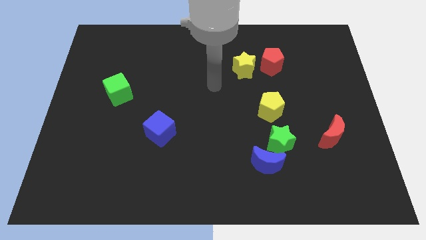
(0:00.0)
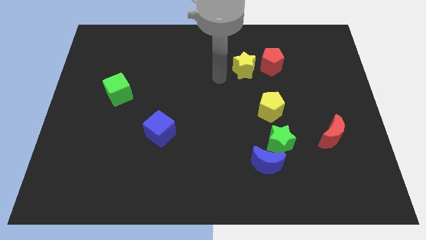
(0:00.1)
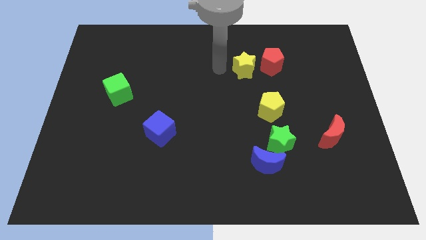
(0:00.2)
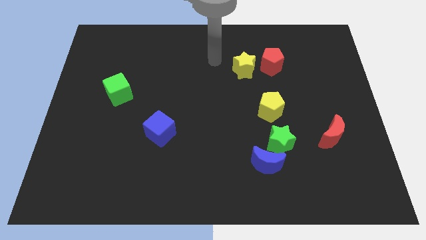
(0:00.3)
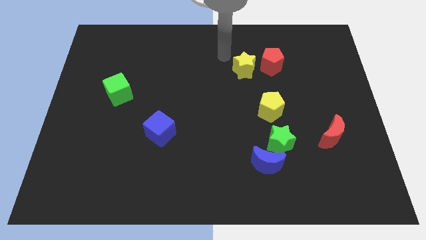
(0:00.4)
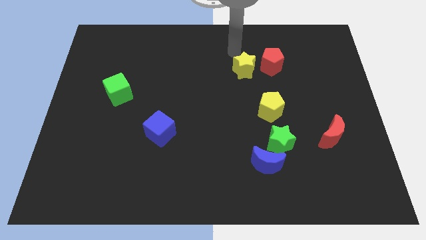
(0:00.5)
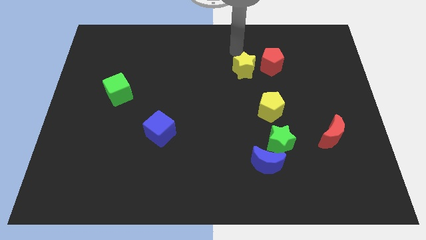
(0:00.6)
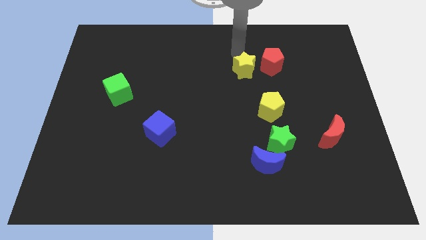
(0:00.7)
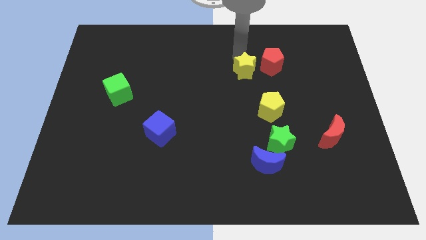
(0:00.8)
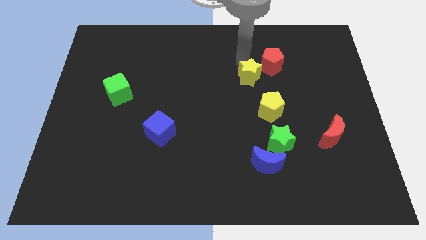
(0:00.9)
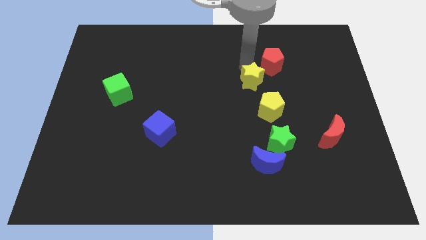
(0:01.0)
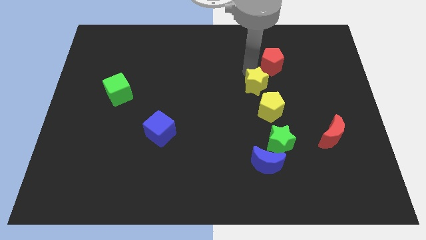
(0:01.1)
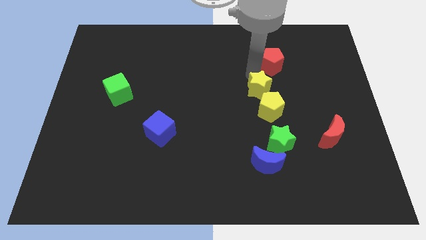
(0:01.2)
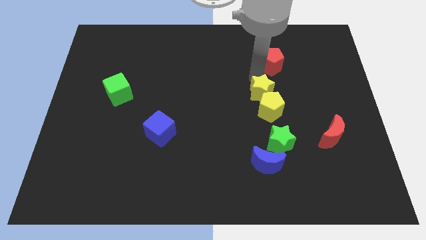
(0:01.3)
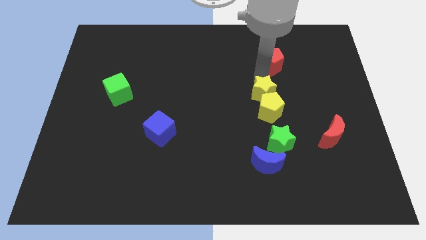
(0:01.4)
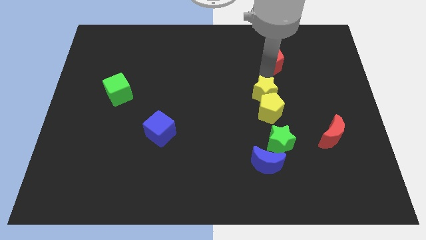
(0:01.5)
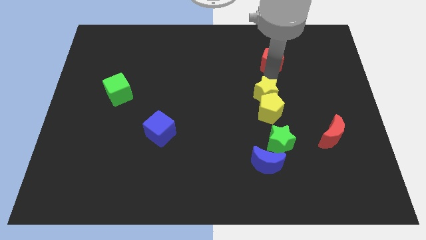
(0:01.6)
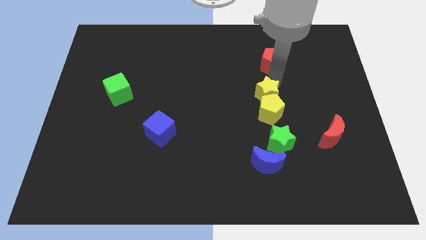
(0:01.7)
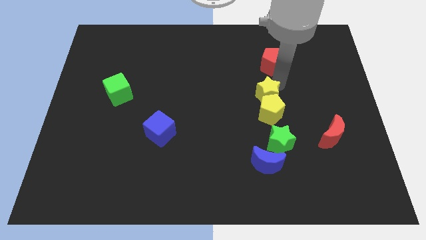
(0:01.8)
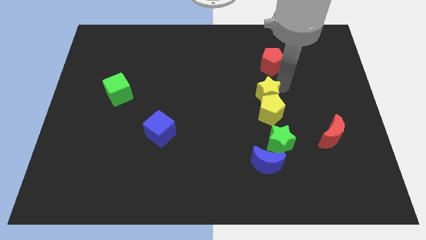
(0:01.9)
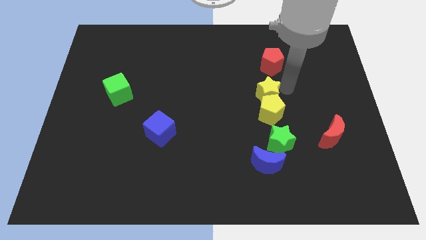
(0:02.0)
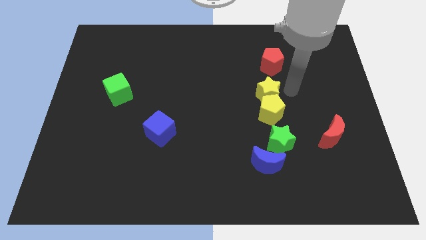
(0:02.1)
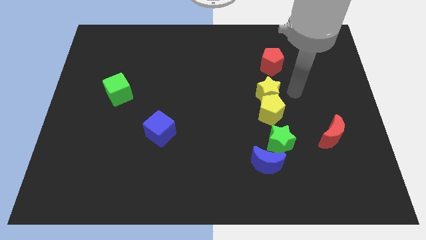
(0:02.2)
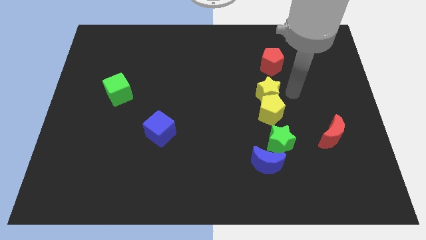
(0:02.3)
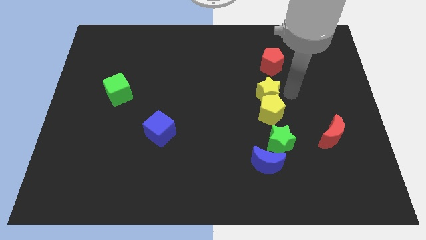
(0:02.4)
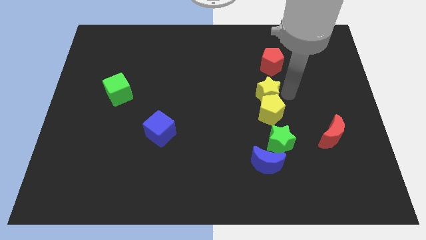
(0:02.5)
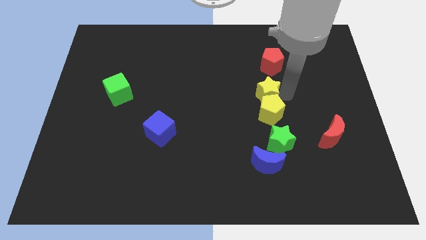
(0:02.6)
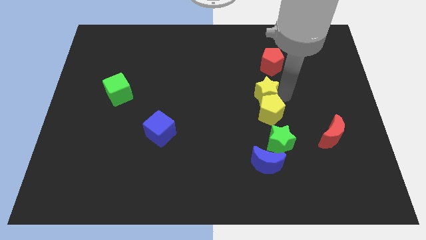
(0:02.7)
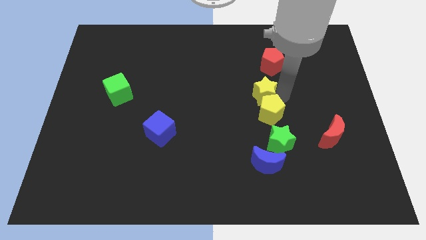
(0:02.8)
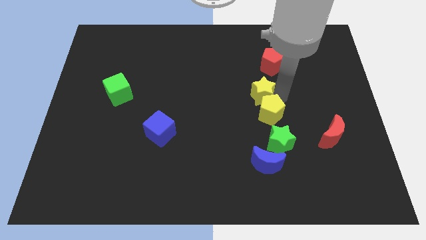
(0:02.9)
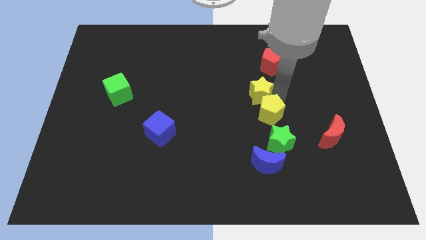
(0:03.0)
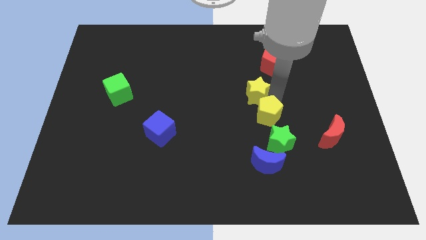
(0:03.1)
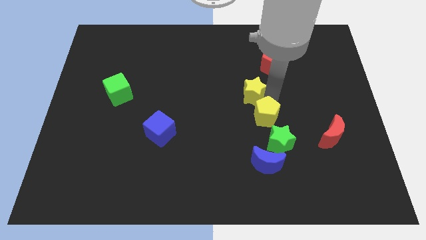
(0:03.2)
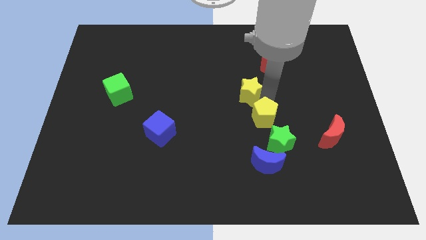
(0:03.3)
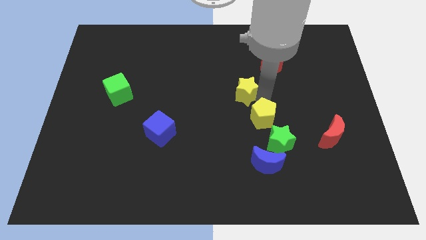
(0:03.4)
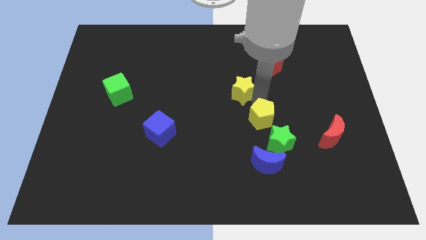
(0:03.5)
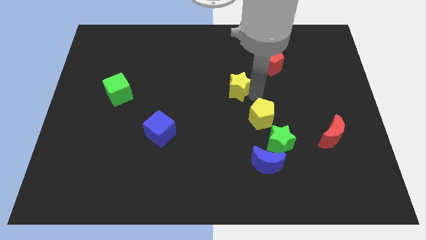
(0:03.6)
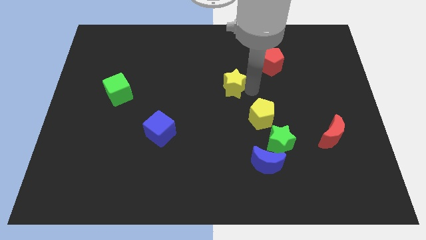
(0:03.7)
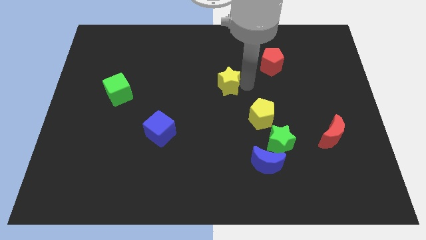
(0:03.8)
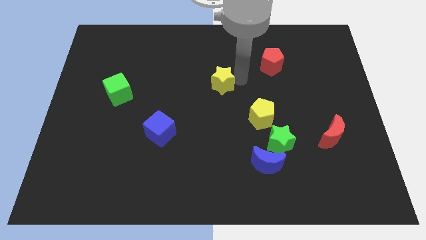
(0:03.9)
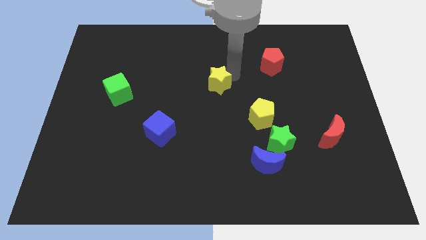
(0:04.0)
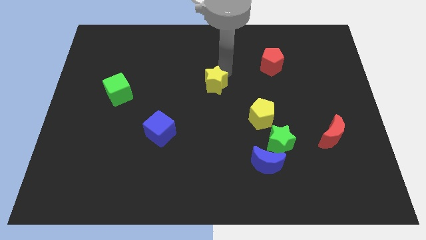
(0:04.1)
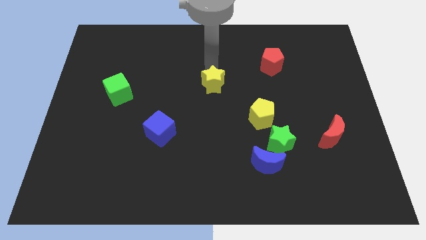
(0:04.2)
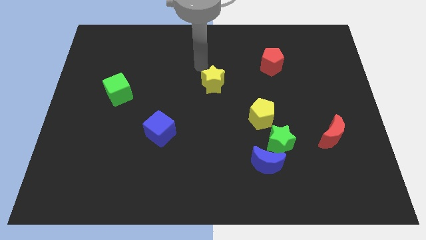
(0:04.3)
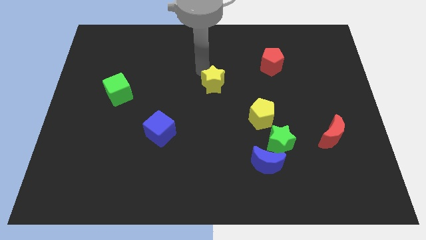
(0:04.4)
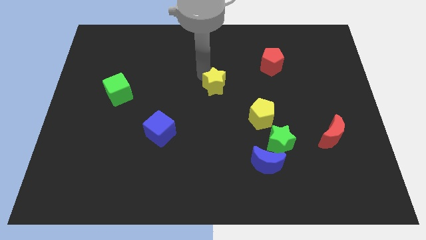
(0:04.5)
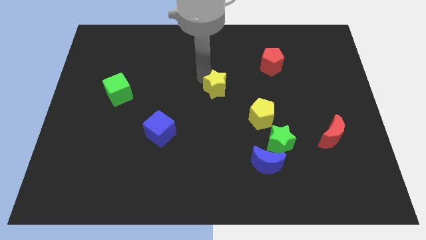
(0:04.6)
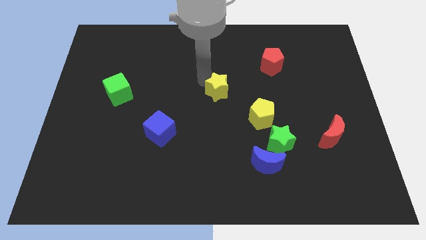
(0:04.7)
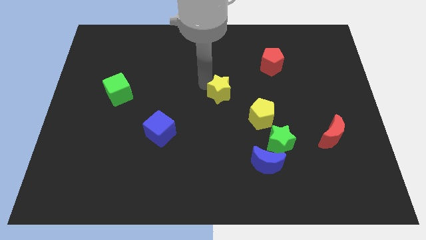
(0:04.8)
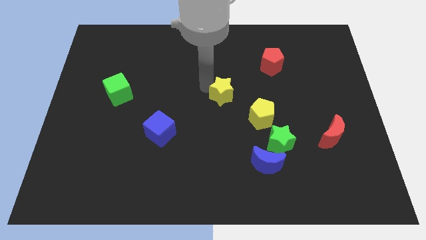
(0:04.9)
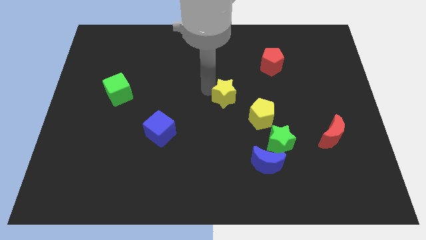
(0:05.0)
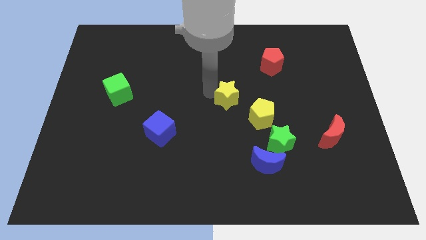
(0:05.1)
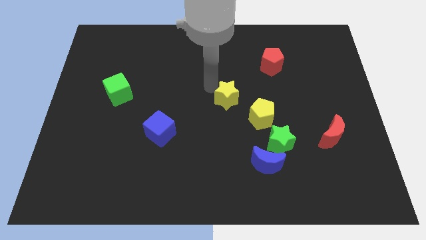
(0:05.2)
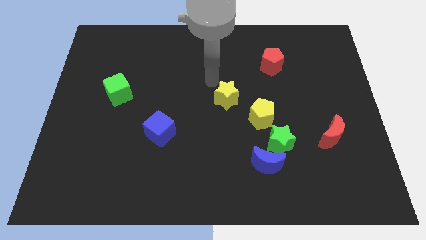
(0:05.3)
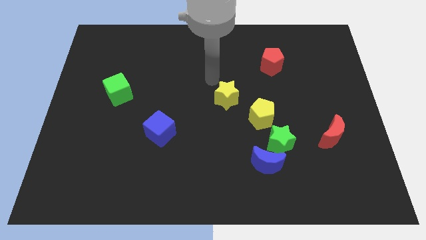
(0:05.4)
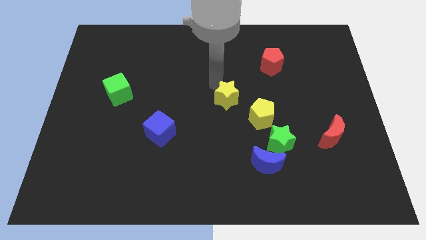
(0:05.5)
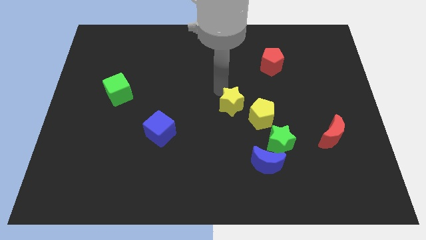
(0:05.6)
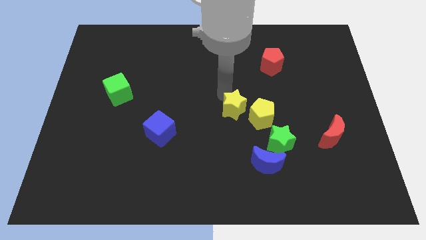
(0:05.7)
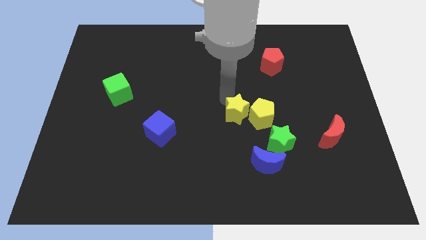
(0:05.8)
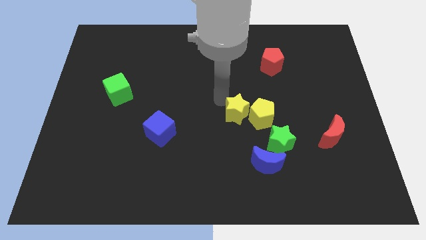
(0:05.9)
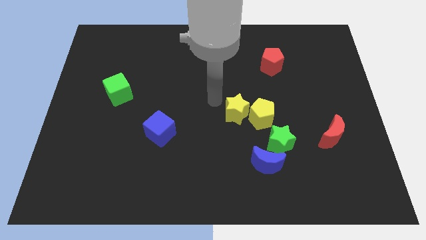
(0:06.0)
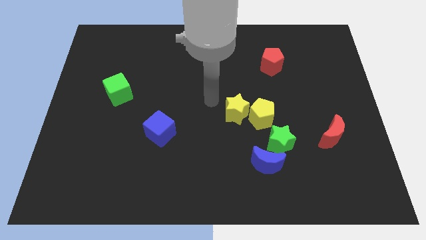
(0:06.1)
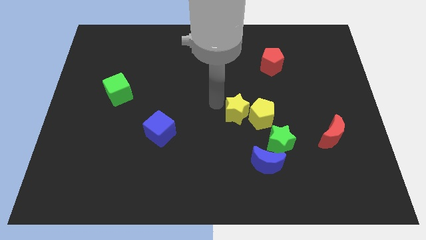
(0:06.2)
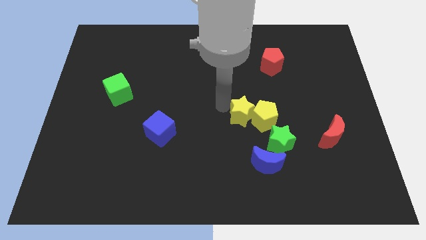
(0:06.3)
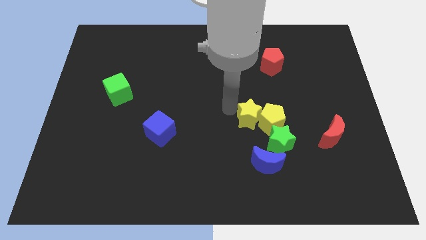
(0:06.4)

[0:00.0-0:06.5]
push the yellow star to the top side of the blue moon

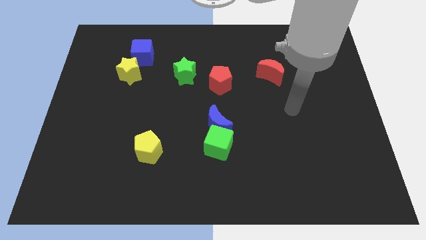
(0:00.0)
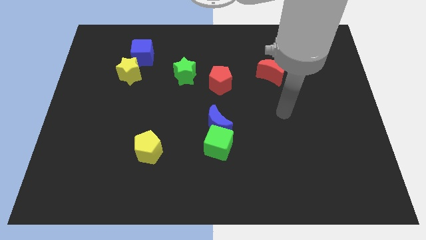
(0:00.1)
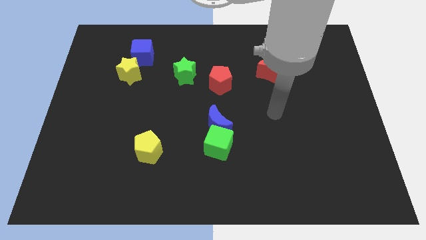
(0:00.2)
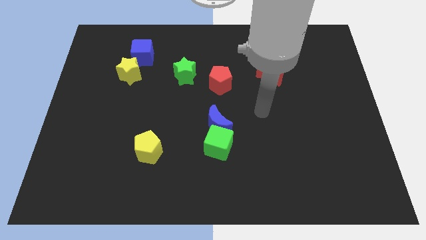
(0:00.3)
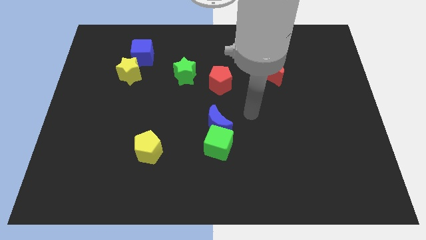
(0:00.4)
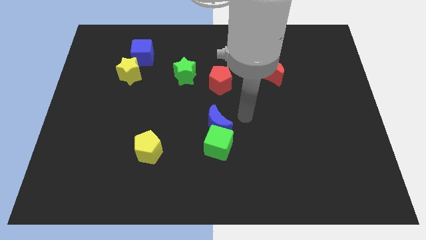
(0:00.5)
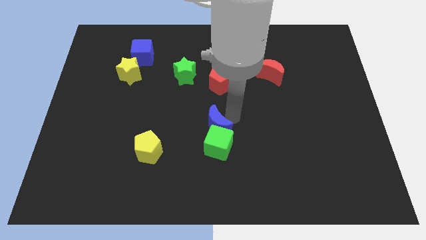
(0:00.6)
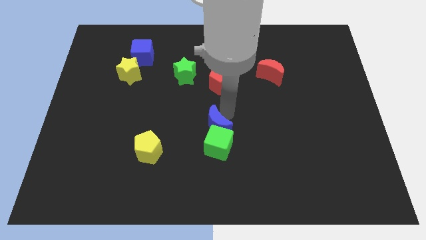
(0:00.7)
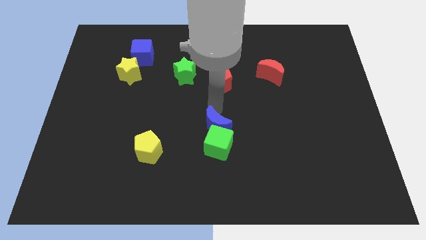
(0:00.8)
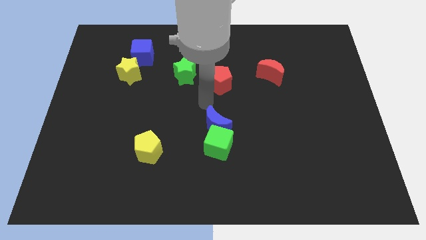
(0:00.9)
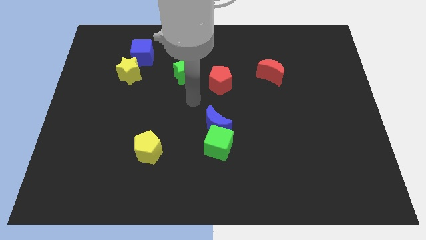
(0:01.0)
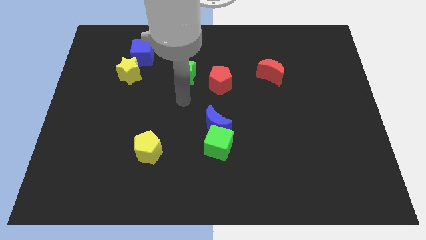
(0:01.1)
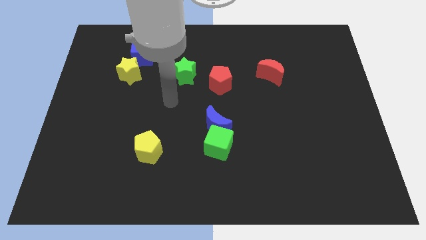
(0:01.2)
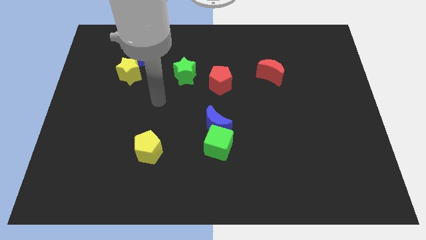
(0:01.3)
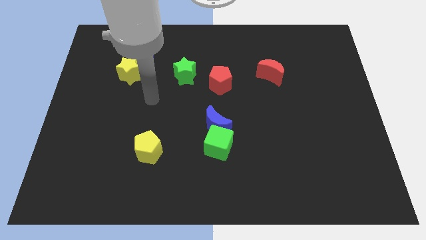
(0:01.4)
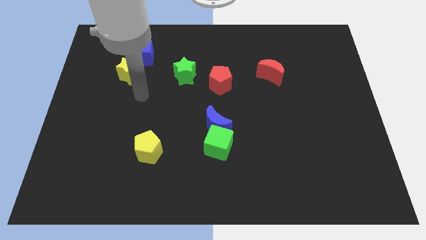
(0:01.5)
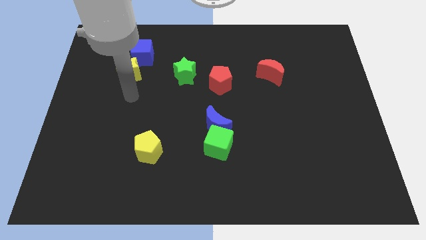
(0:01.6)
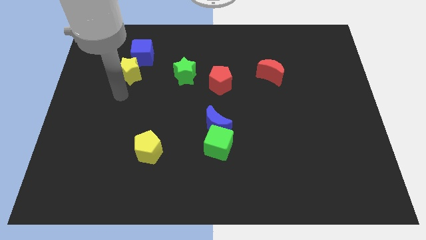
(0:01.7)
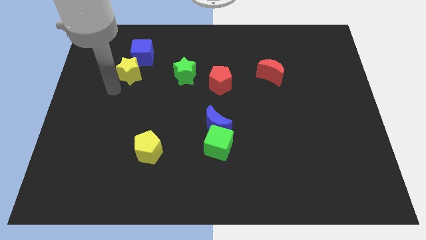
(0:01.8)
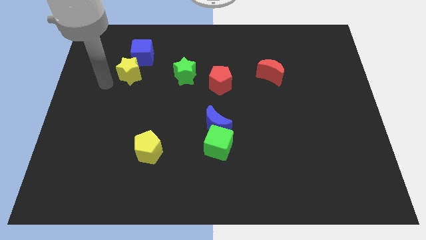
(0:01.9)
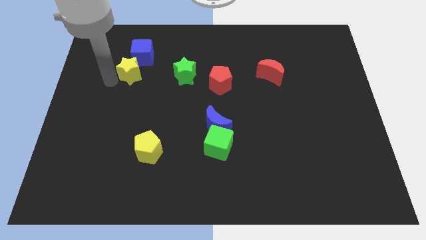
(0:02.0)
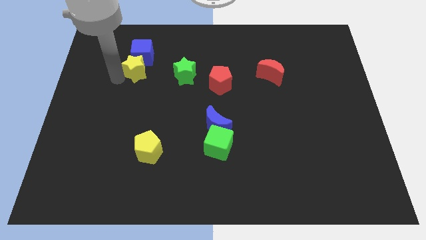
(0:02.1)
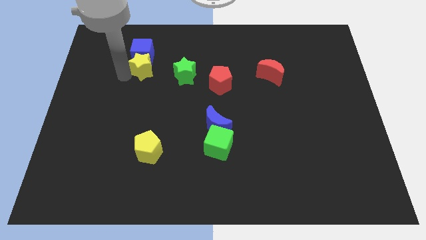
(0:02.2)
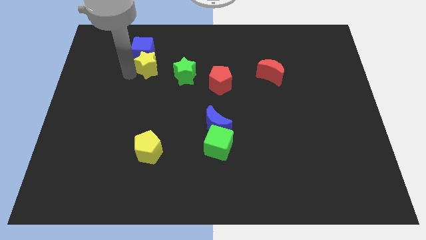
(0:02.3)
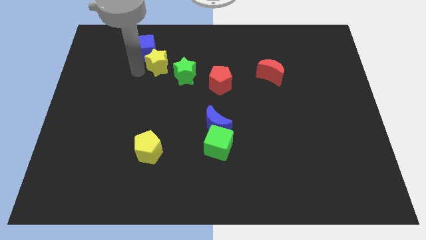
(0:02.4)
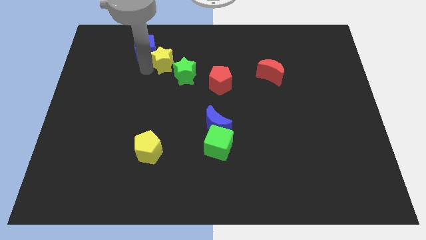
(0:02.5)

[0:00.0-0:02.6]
move the yellow star to the right side of the blue cube
